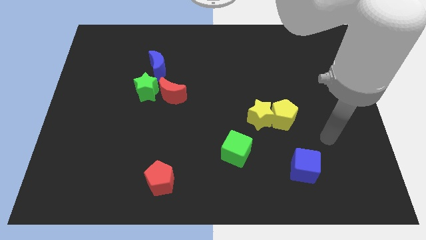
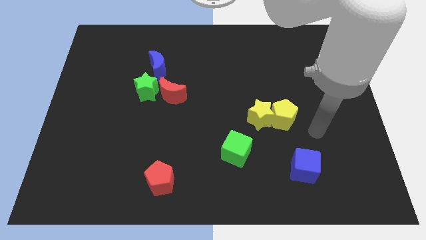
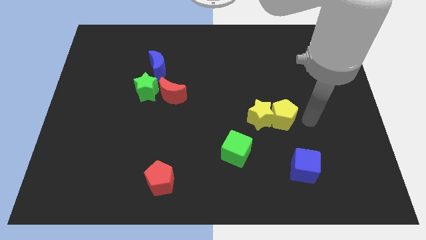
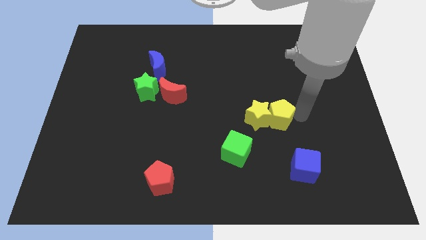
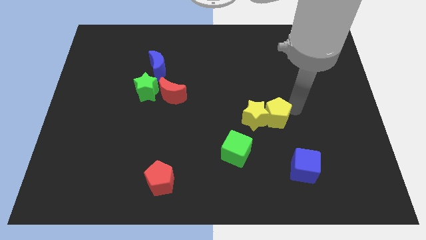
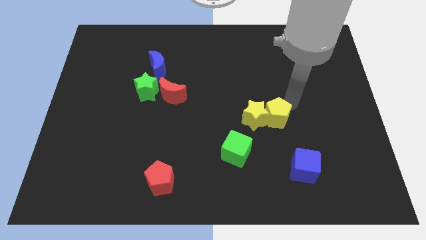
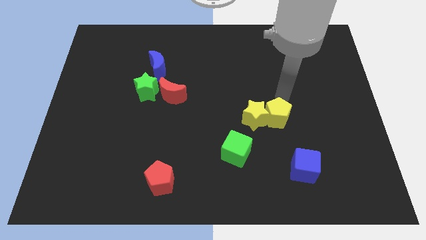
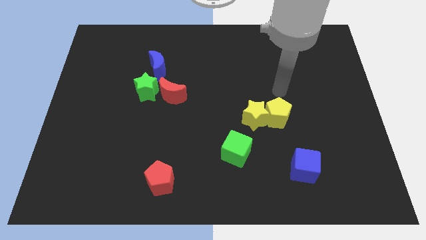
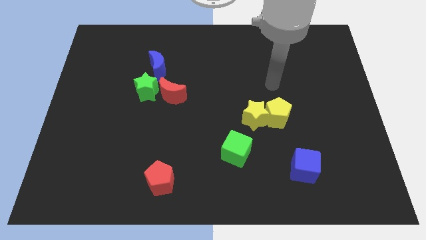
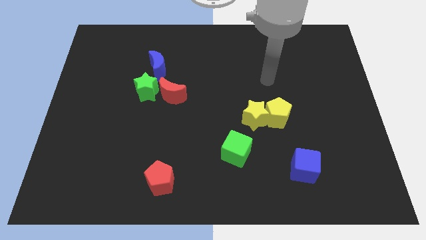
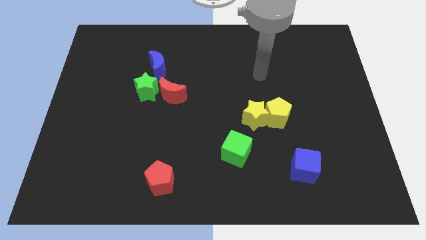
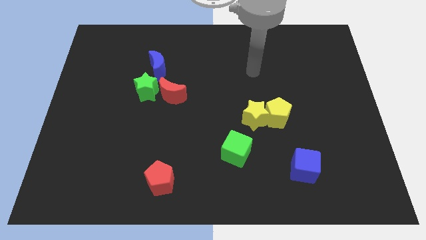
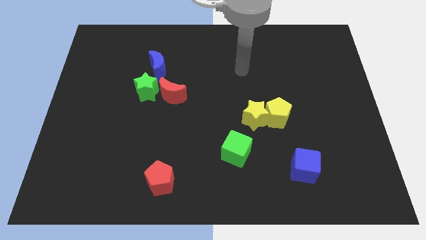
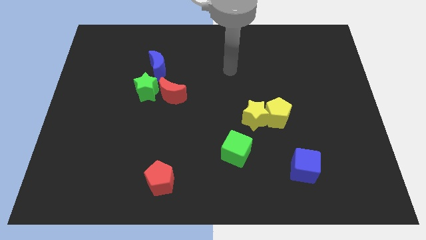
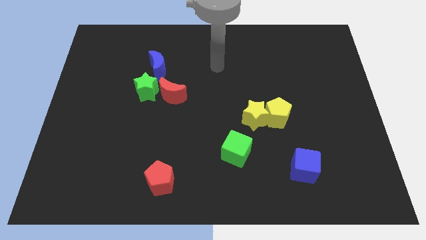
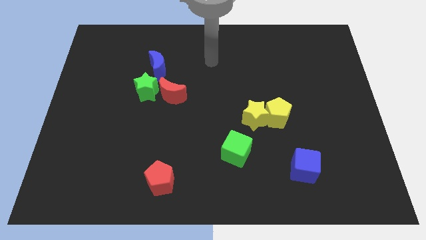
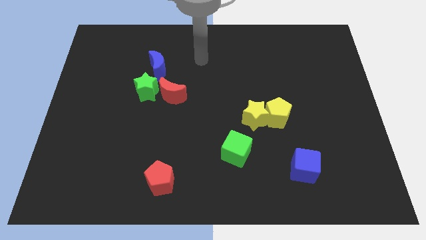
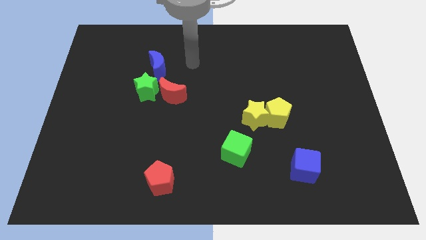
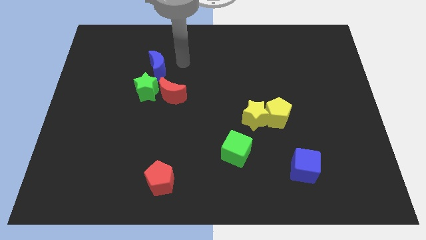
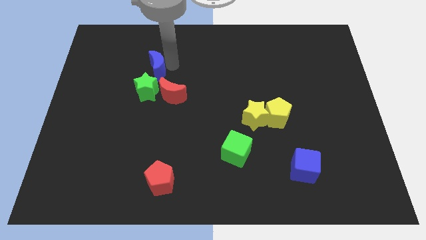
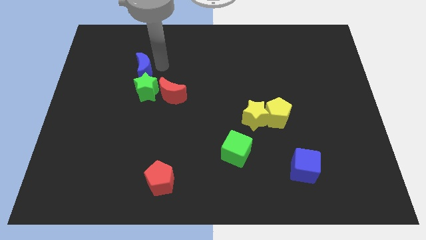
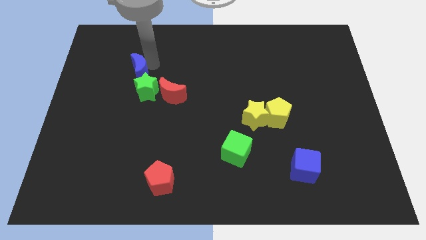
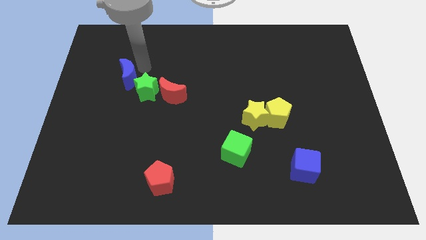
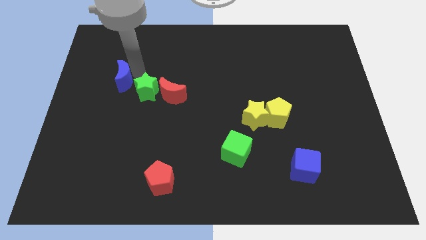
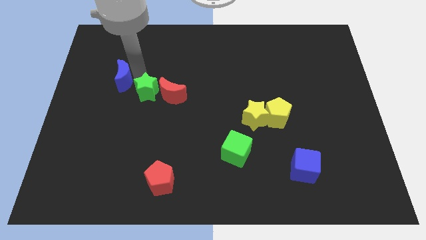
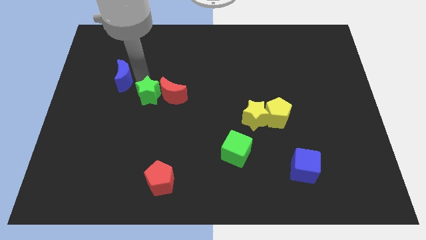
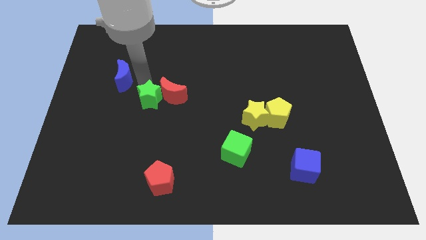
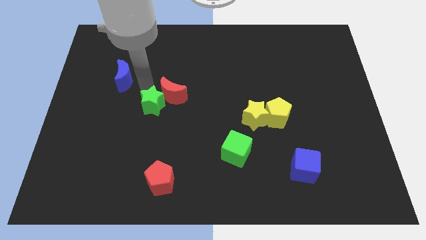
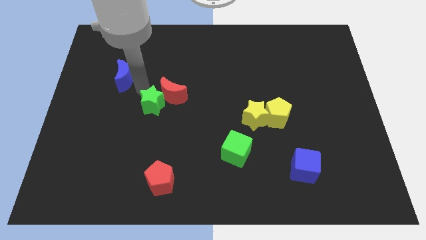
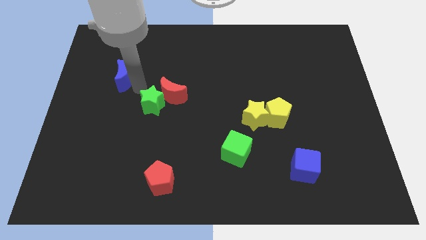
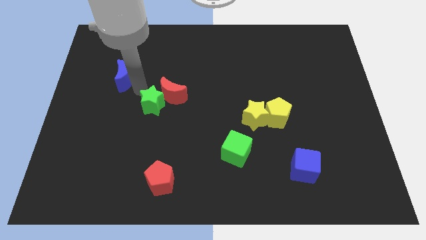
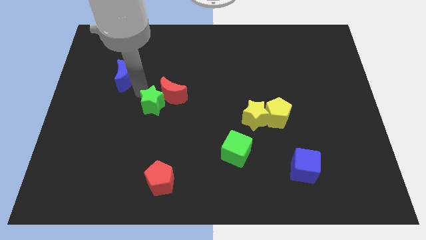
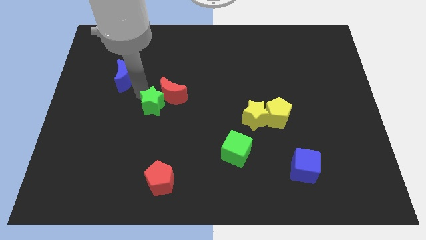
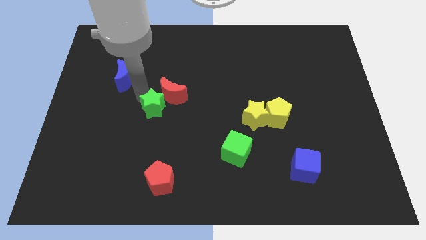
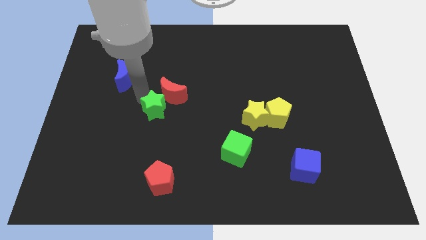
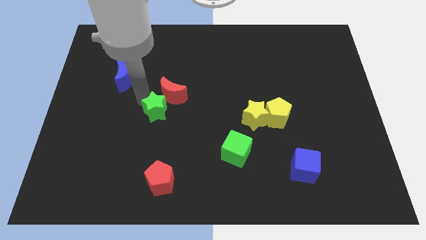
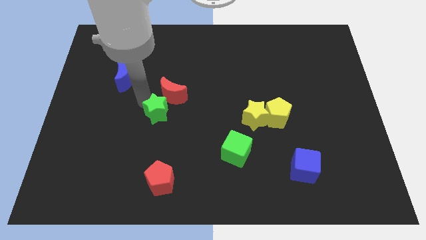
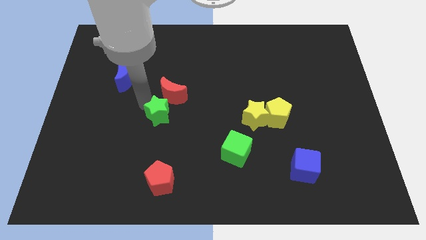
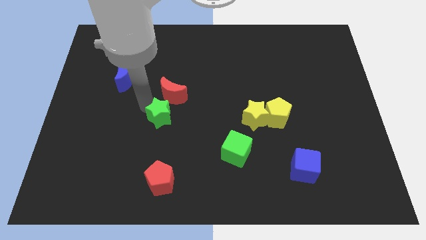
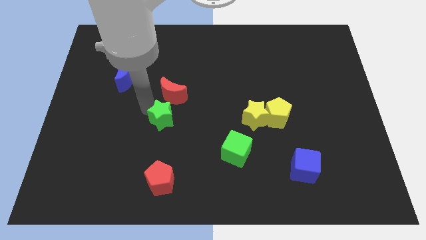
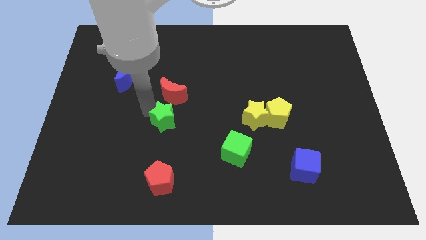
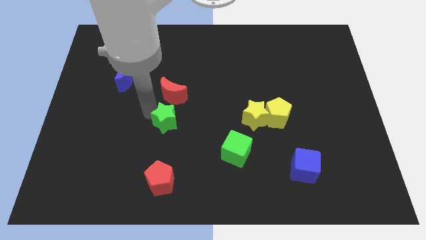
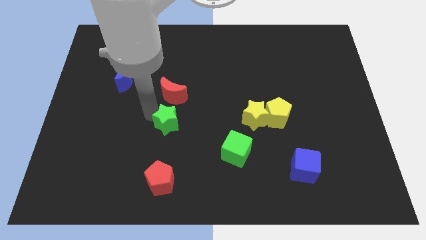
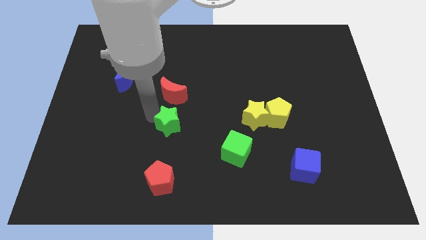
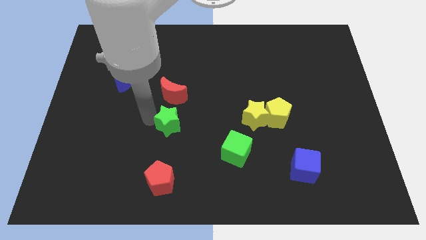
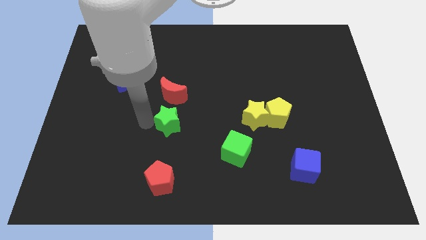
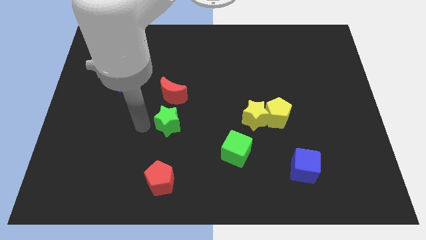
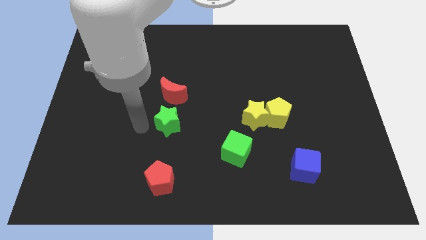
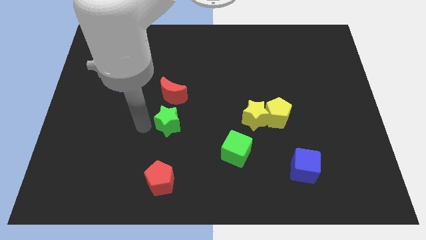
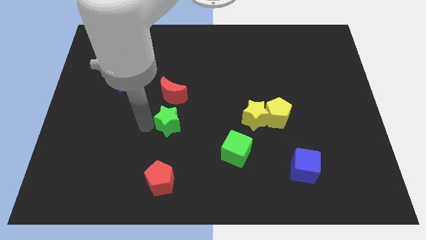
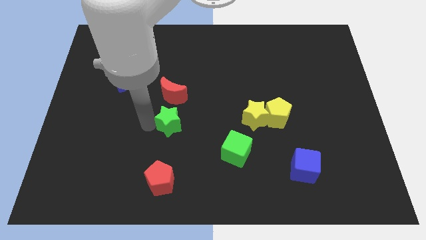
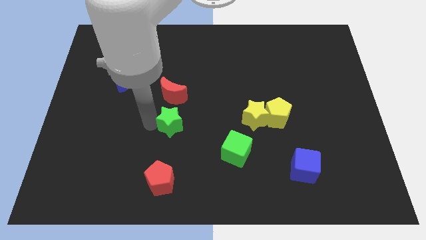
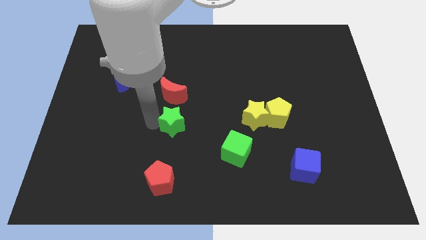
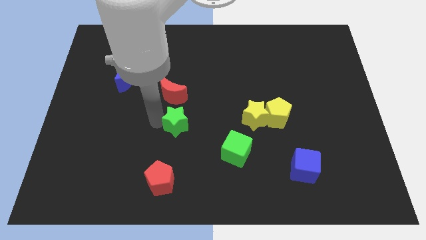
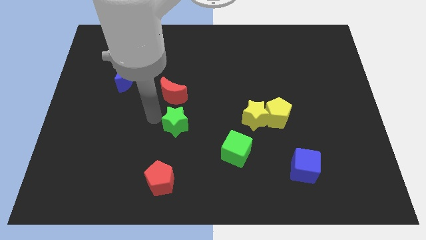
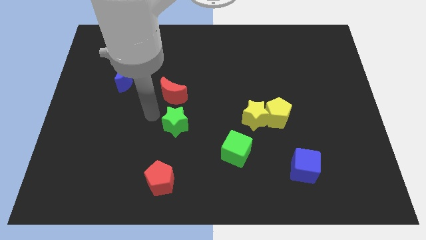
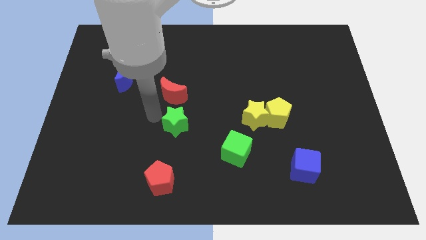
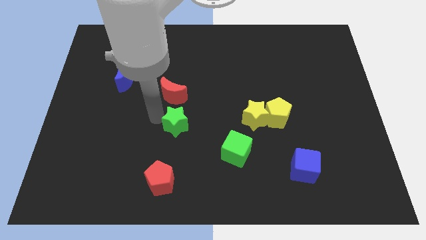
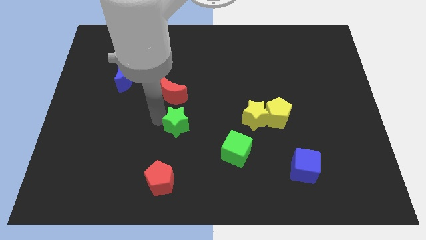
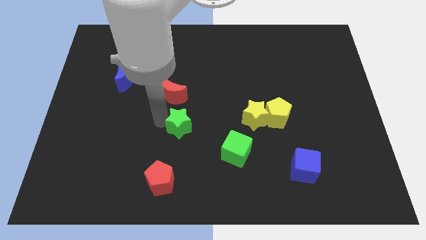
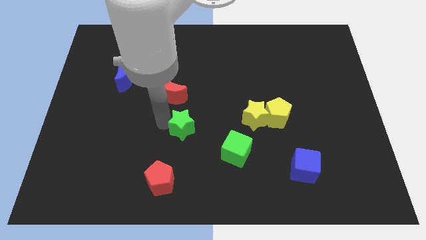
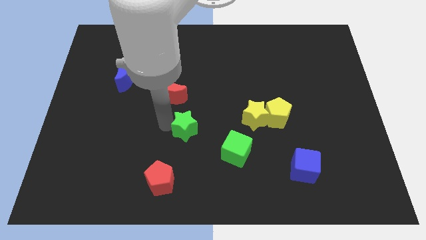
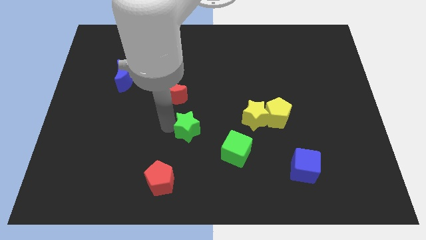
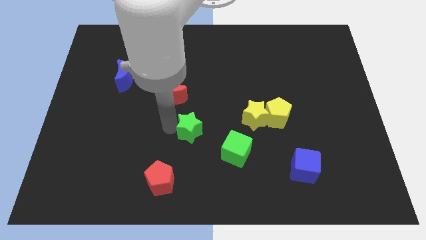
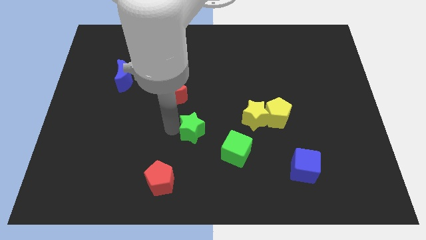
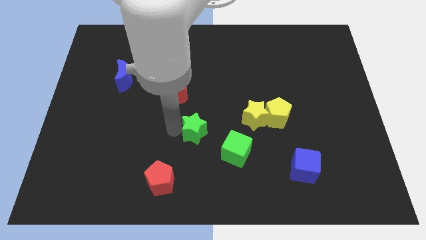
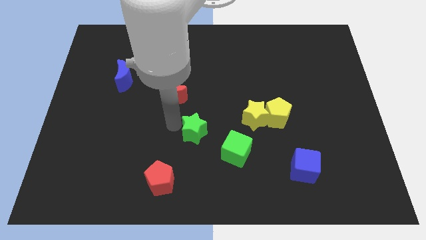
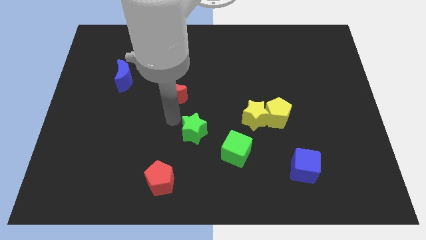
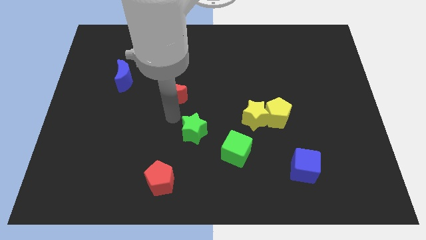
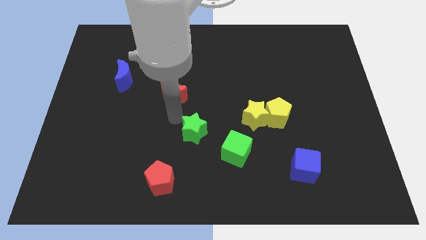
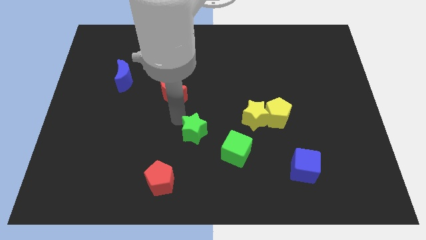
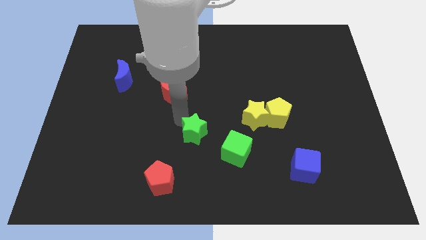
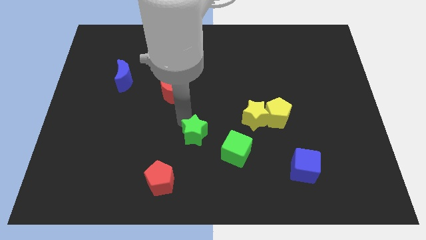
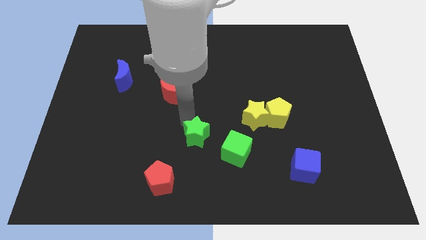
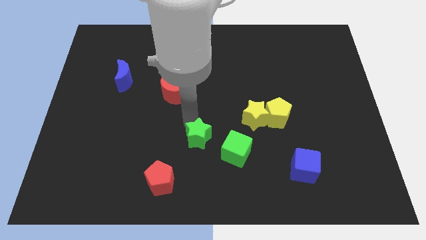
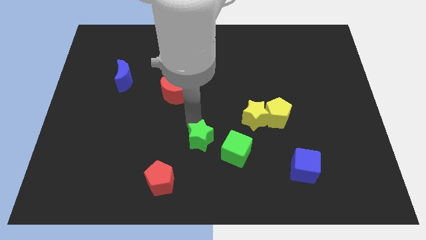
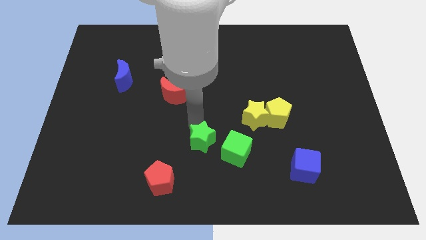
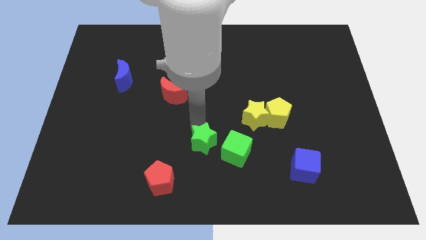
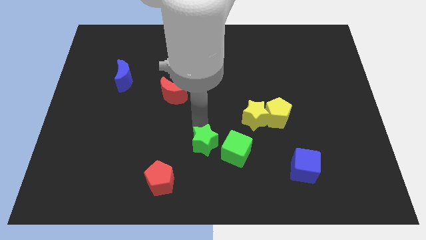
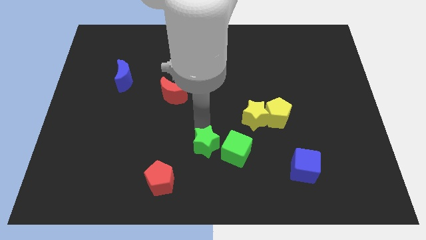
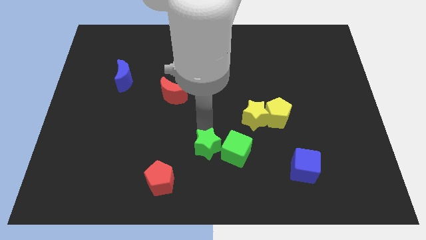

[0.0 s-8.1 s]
push the green star close to the green cube
